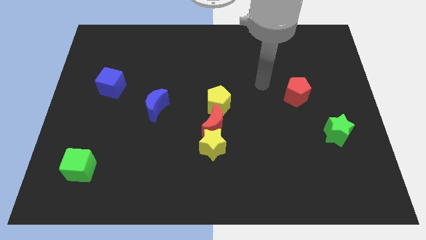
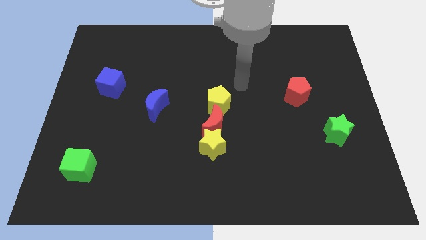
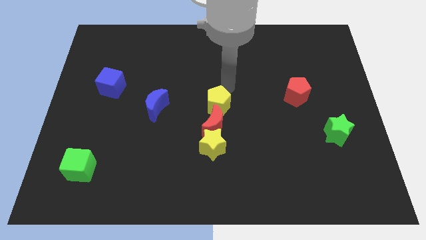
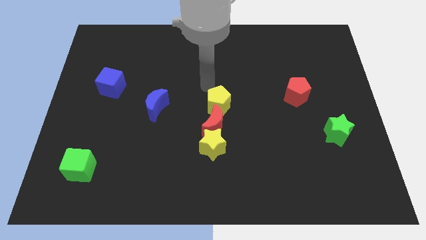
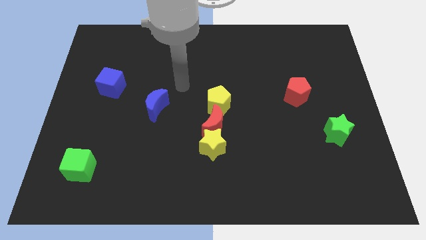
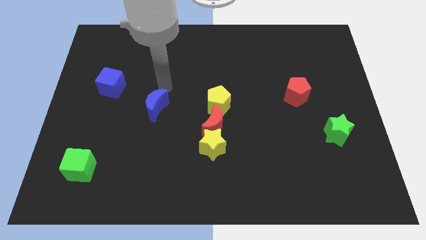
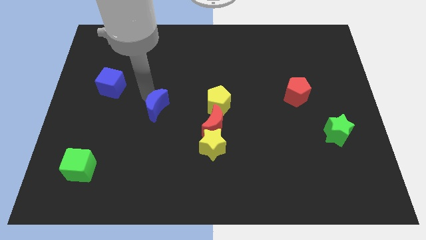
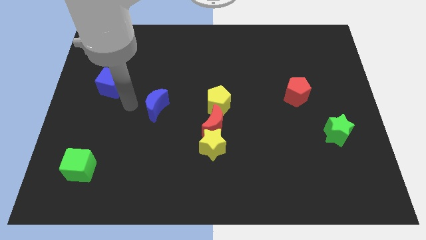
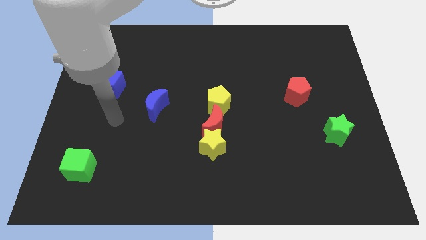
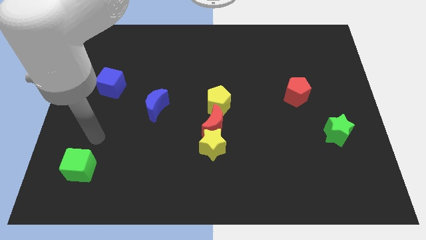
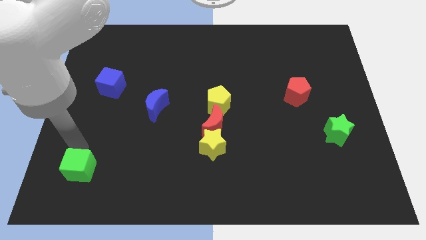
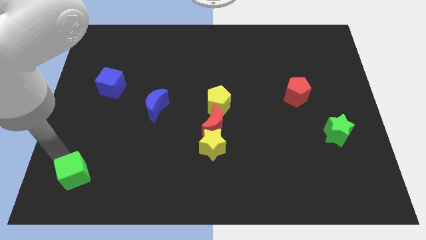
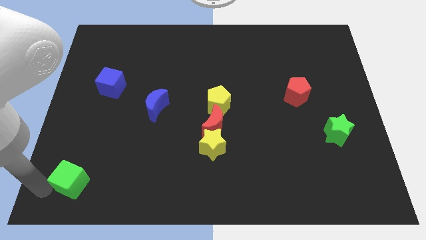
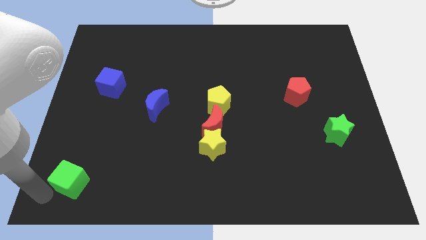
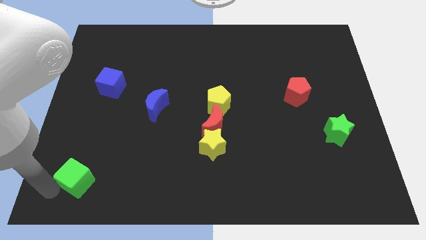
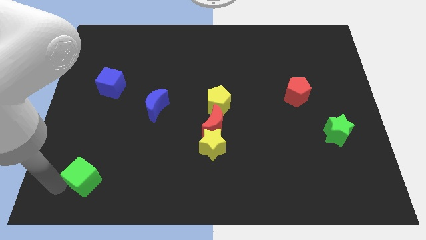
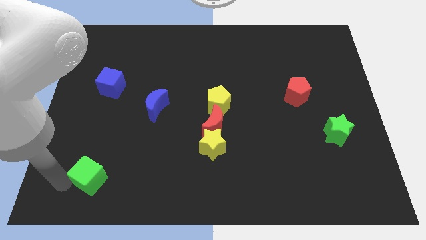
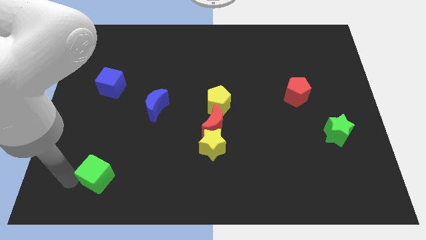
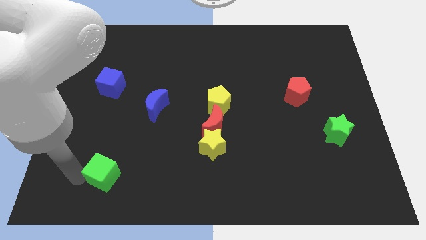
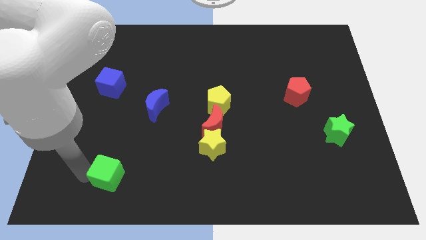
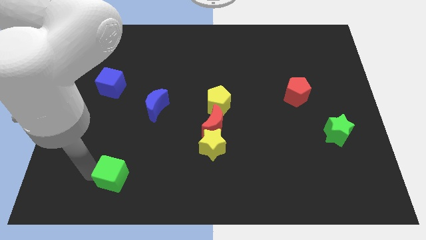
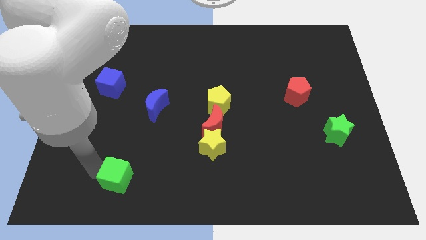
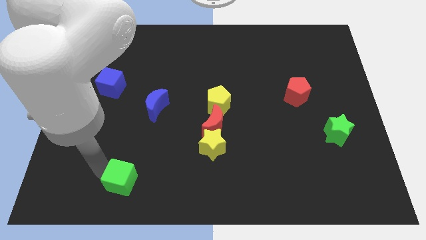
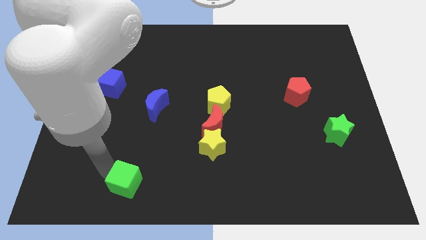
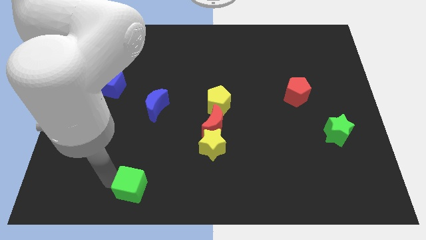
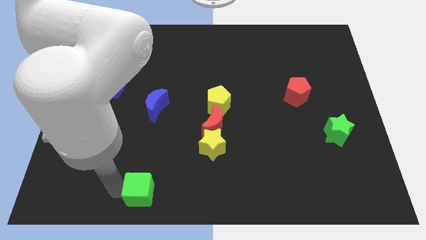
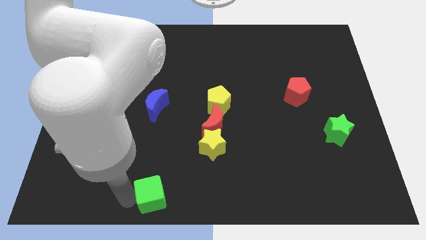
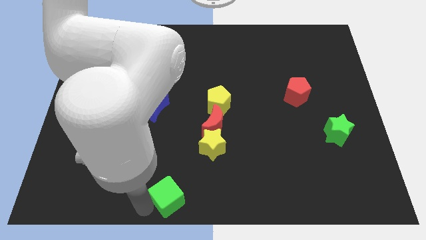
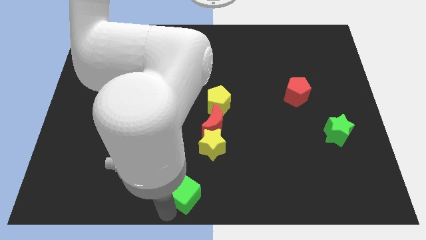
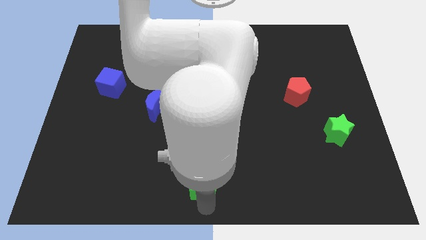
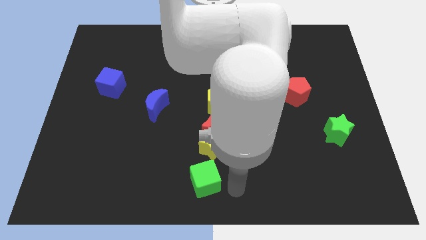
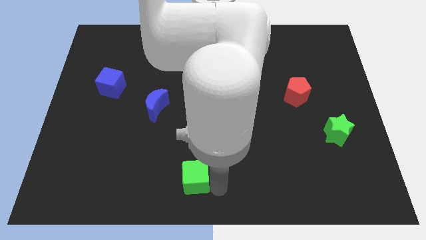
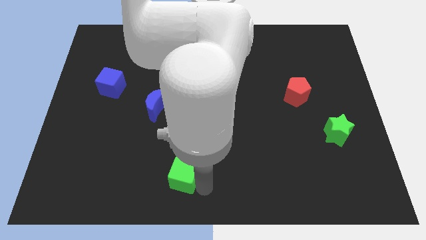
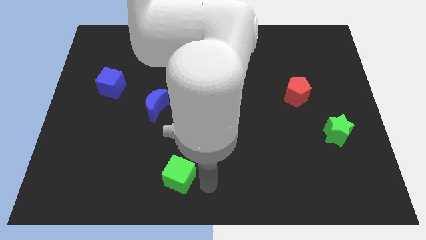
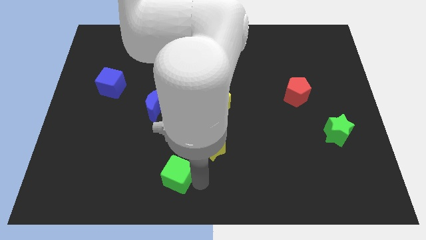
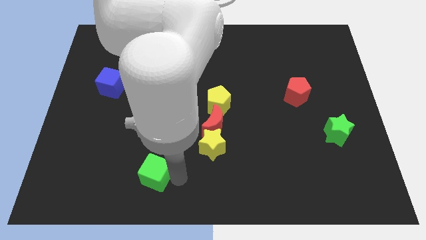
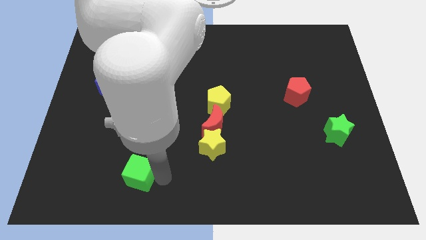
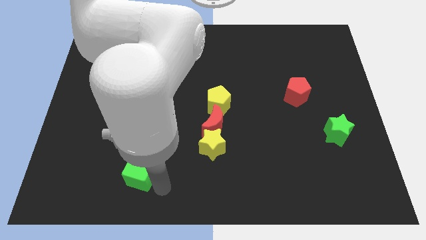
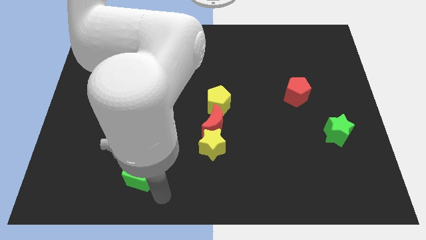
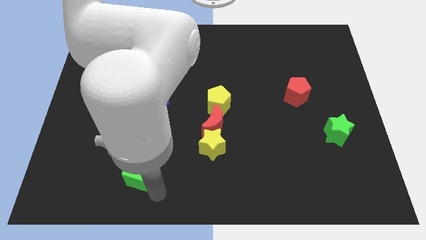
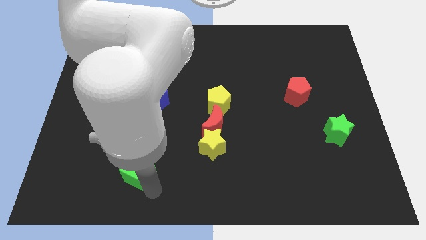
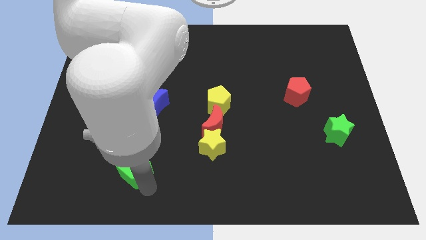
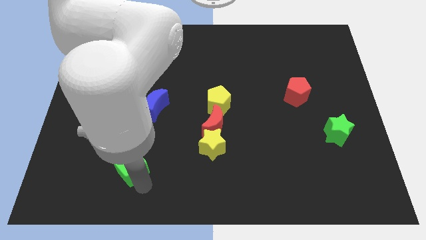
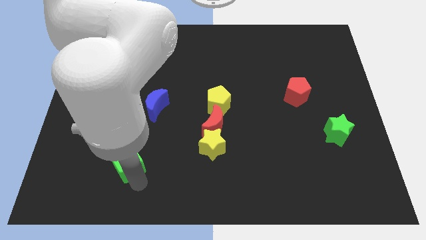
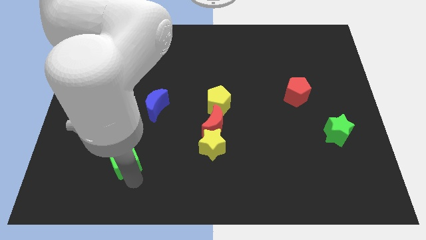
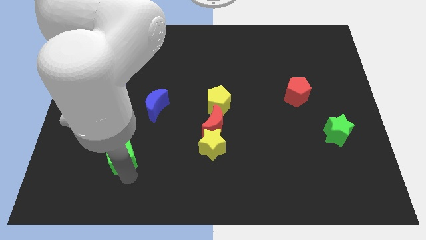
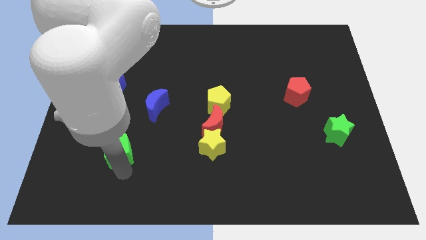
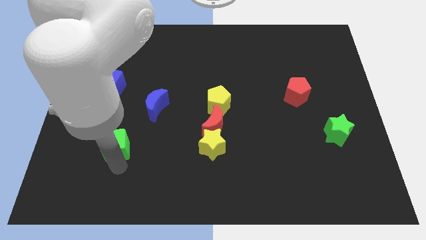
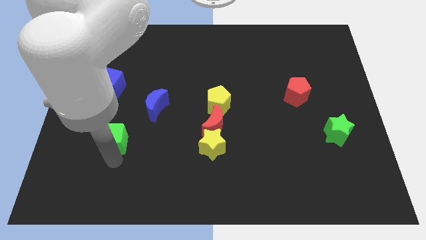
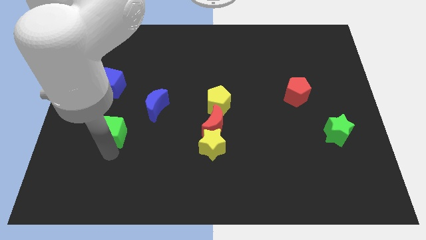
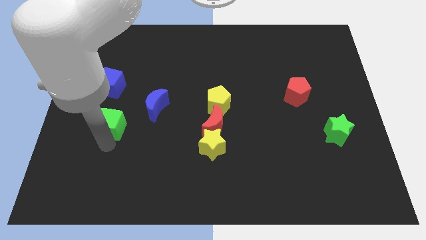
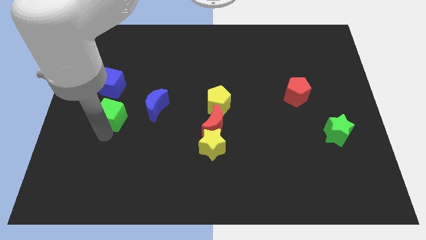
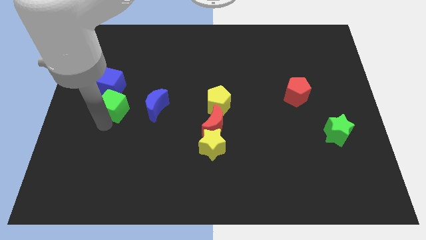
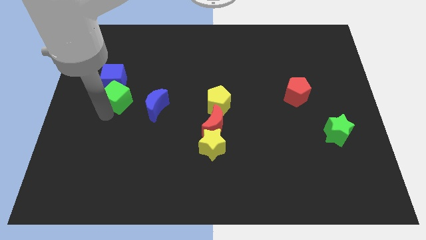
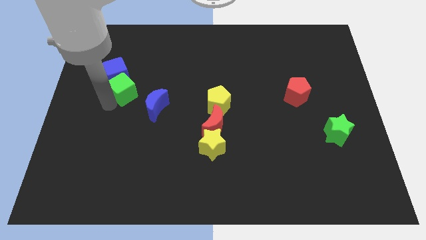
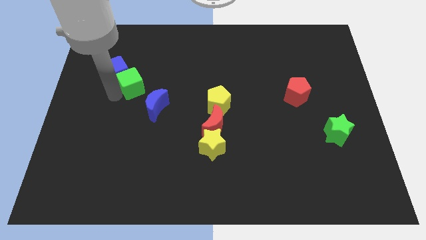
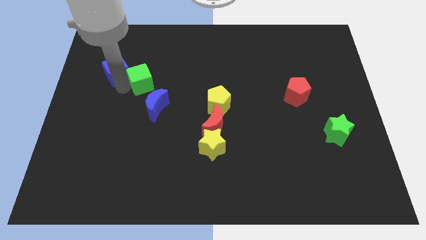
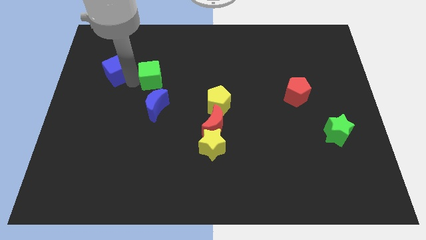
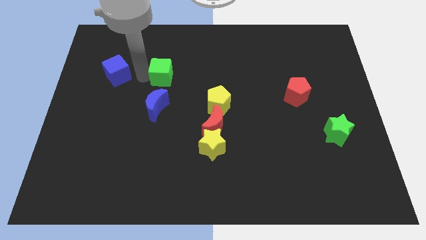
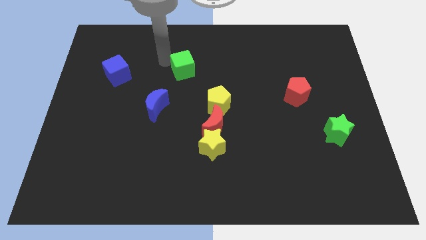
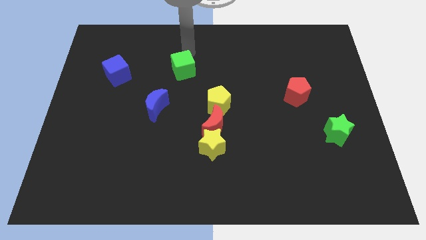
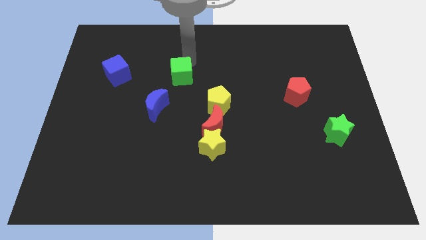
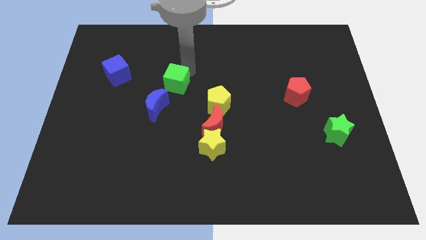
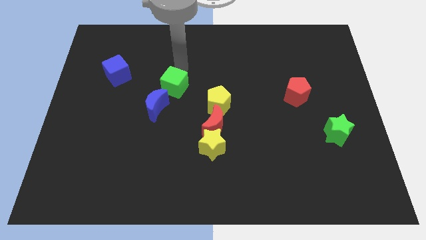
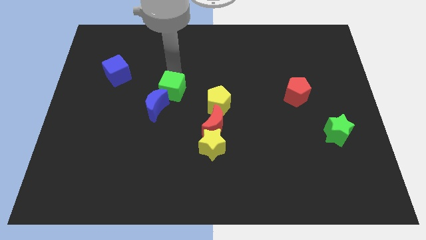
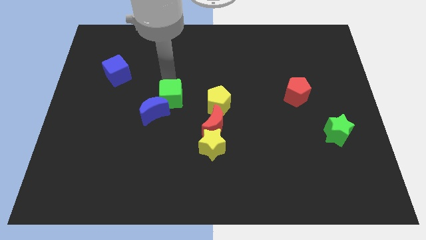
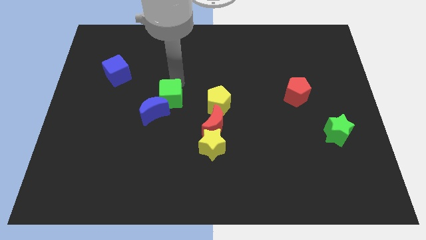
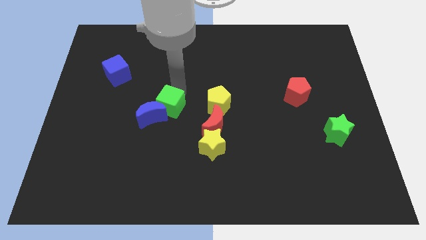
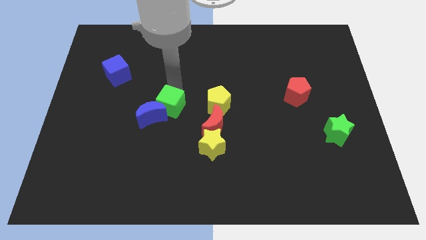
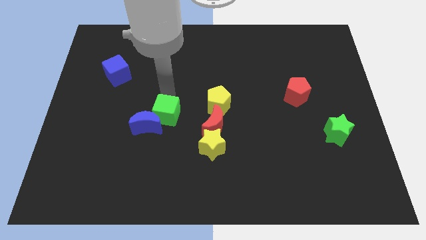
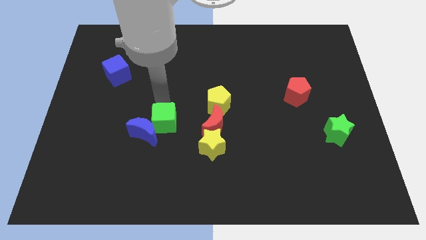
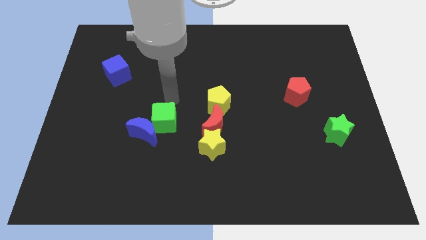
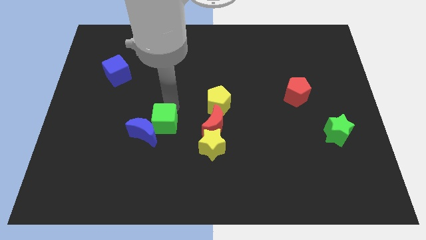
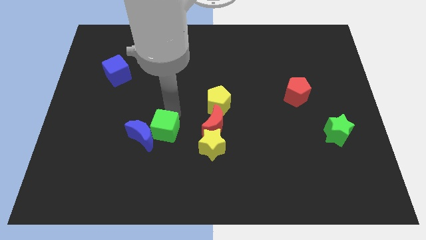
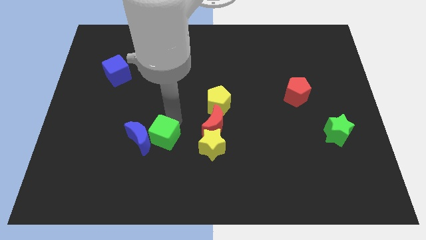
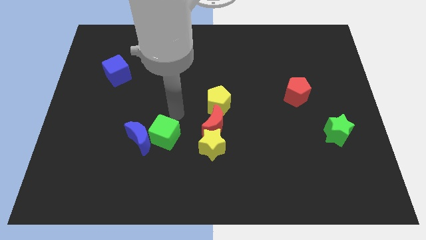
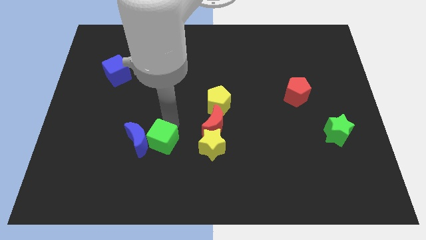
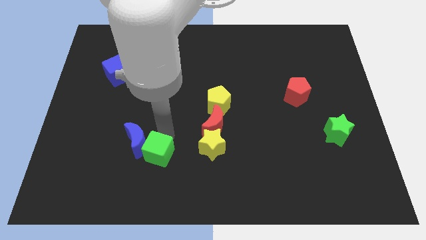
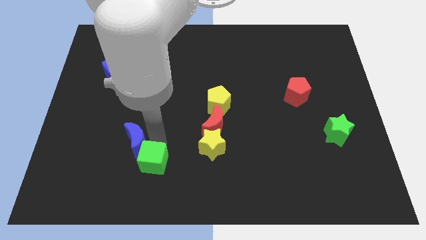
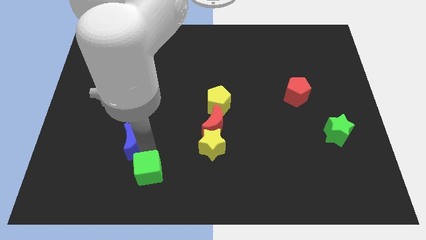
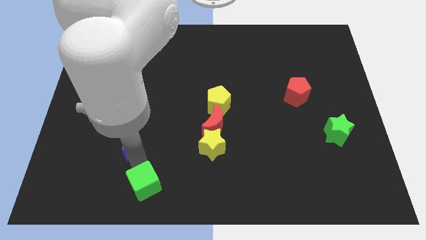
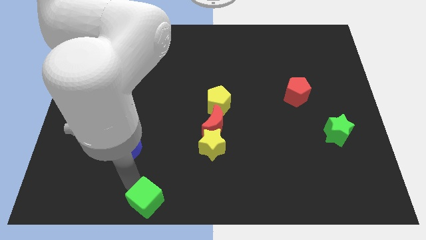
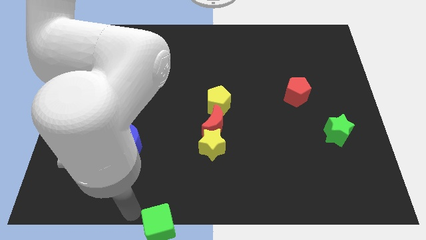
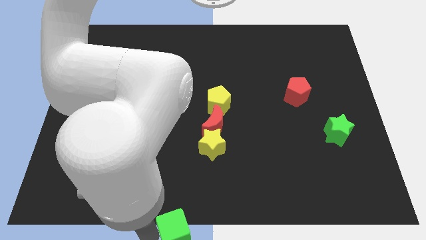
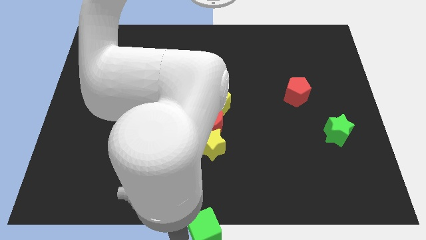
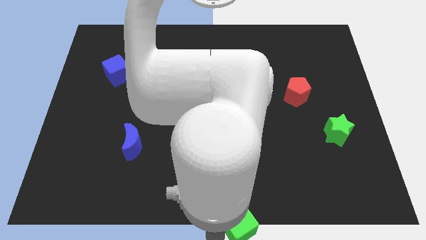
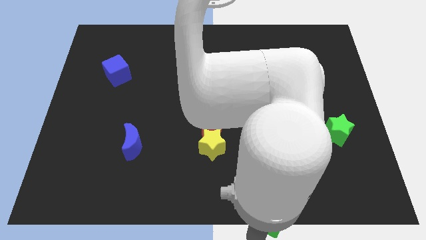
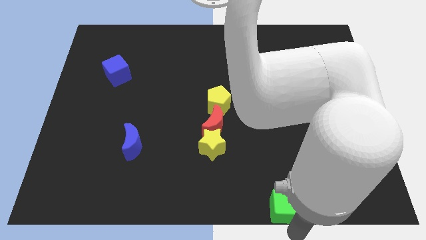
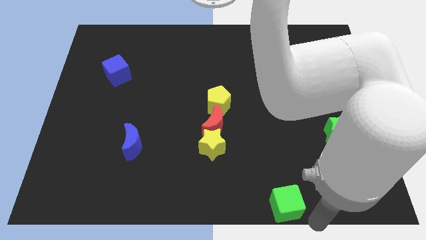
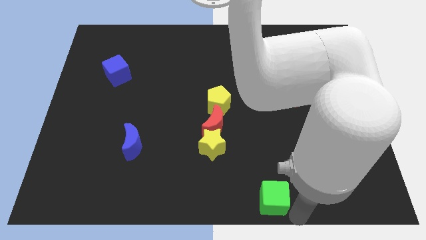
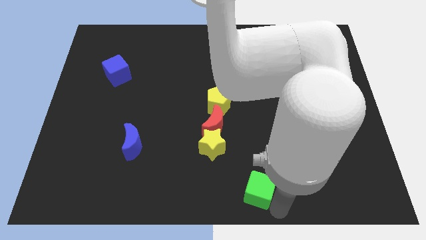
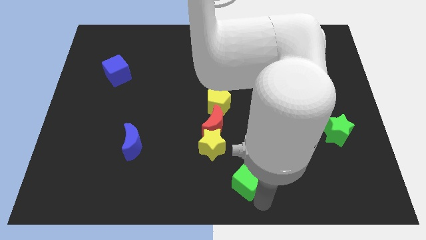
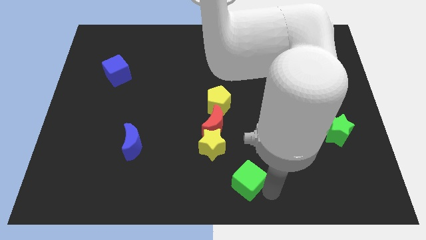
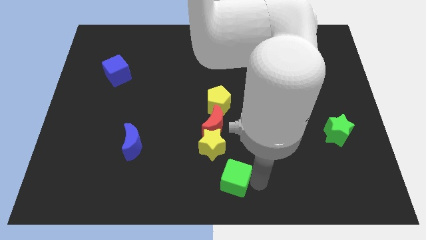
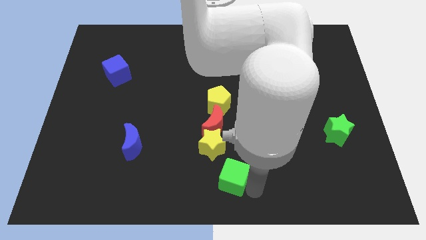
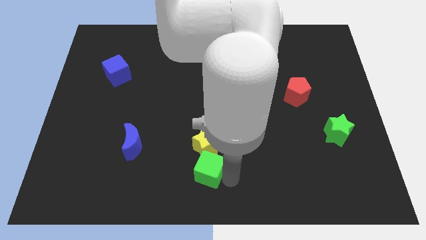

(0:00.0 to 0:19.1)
slide the green cube to the yellow star
